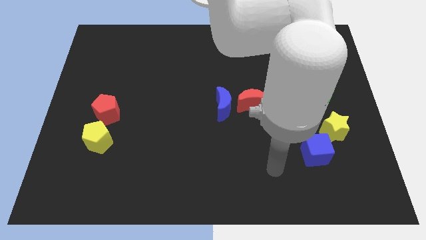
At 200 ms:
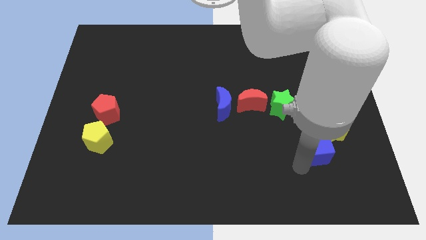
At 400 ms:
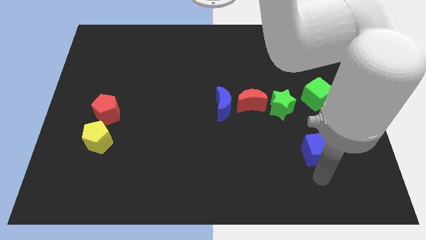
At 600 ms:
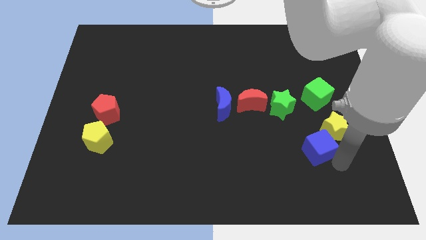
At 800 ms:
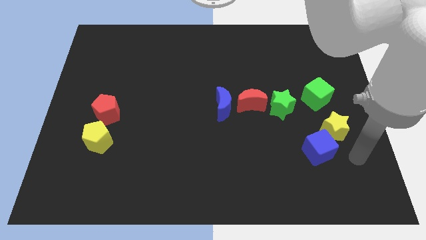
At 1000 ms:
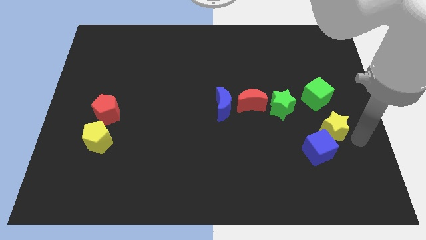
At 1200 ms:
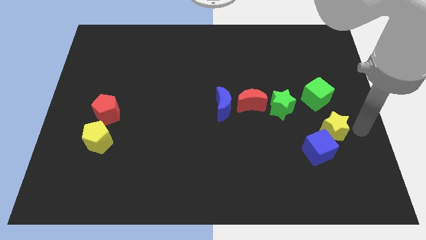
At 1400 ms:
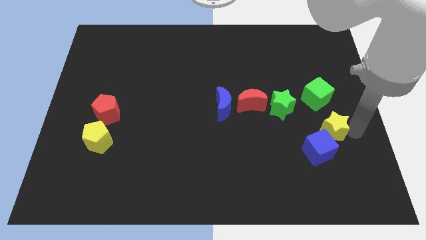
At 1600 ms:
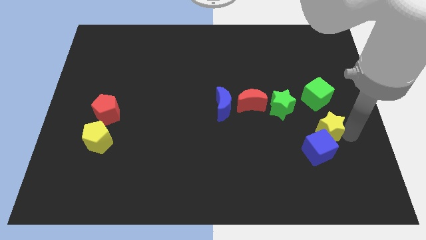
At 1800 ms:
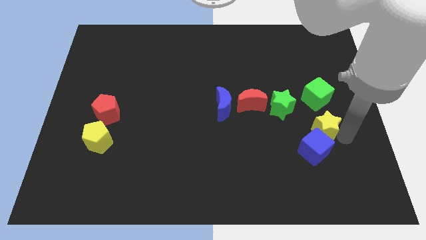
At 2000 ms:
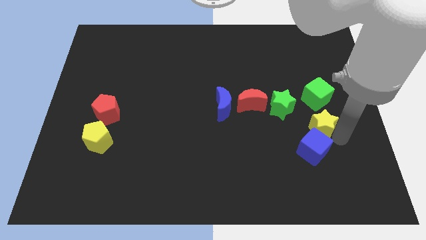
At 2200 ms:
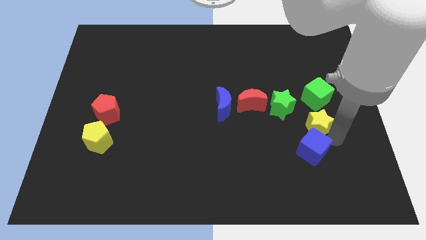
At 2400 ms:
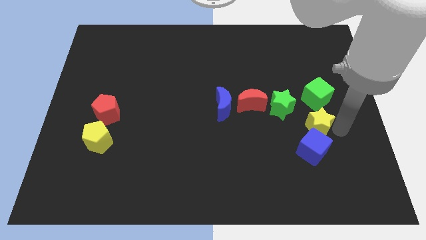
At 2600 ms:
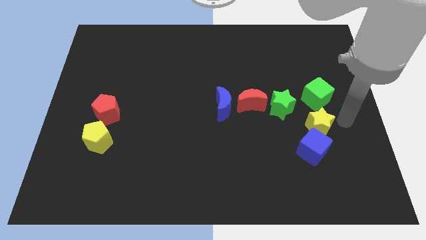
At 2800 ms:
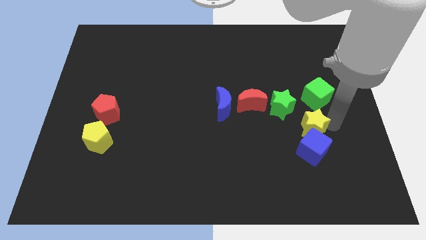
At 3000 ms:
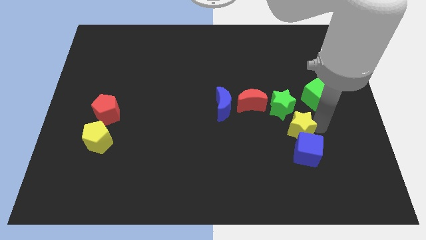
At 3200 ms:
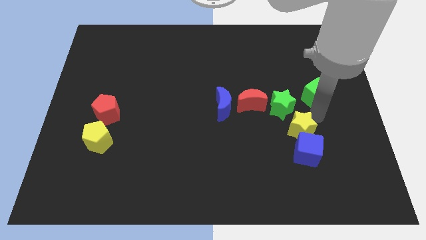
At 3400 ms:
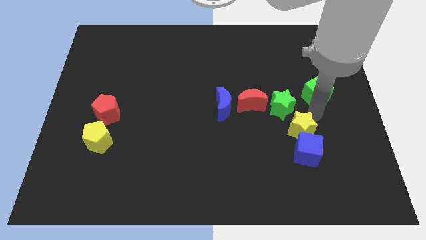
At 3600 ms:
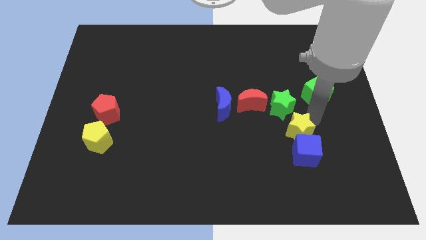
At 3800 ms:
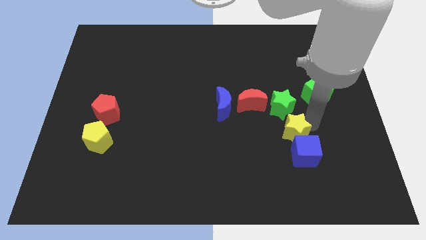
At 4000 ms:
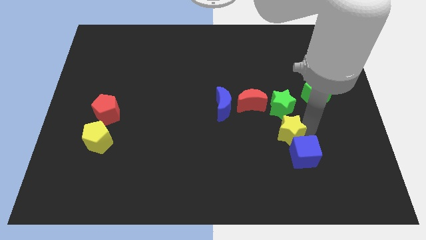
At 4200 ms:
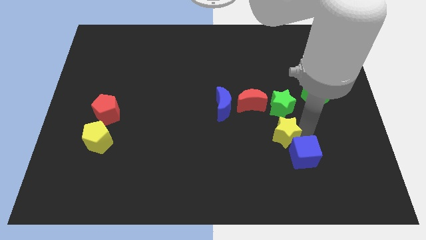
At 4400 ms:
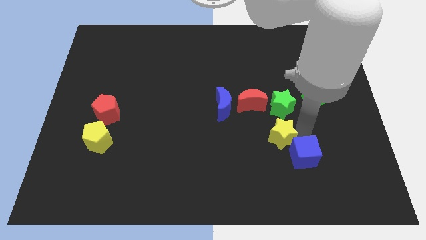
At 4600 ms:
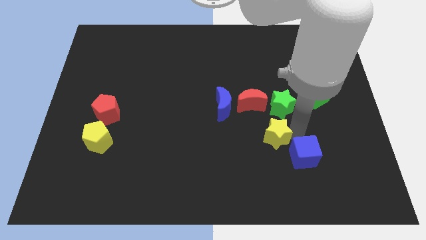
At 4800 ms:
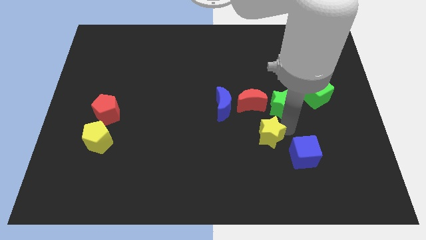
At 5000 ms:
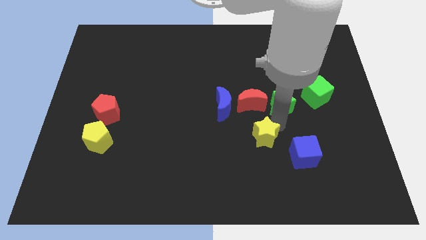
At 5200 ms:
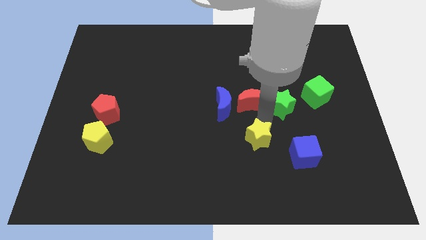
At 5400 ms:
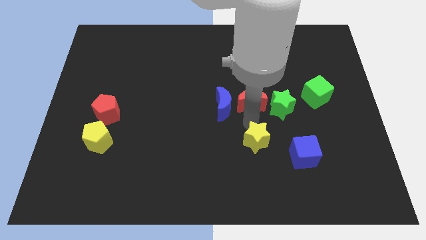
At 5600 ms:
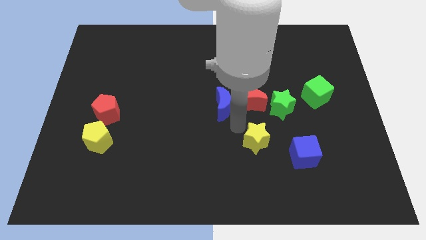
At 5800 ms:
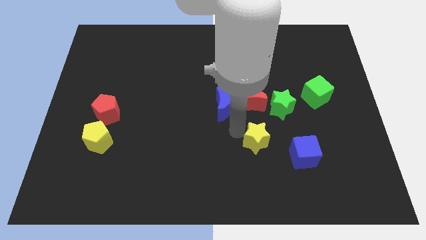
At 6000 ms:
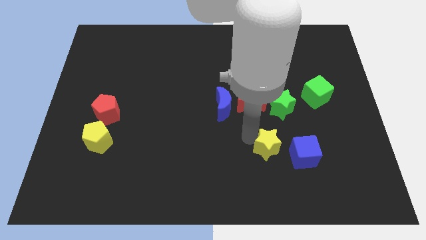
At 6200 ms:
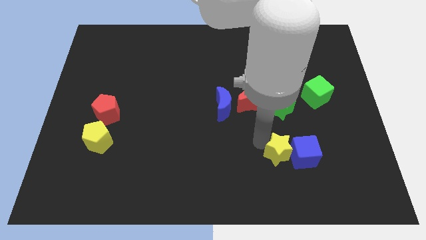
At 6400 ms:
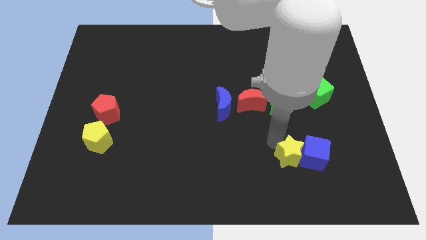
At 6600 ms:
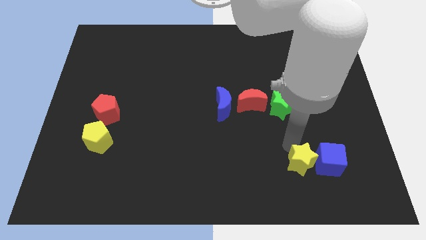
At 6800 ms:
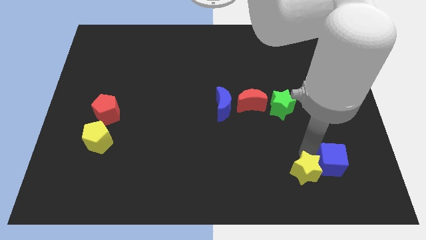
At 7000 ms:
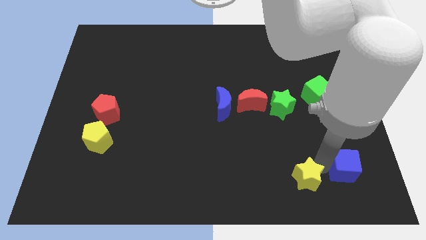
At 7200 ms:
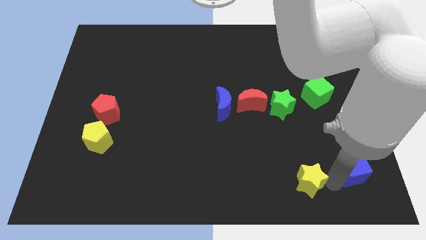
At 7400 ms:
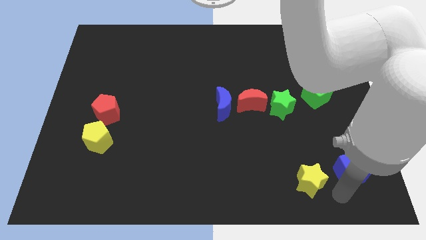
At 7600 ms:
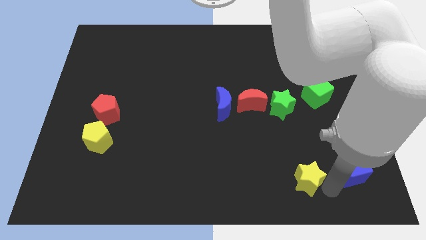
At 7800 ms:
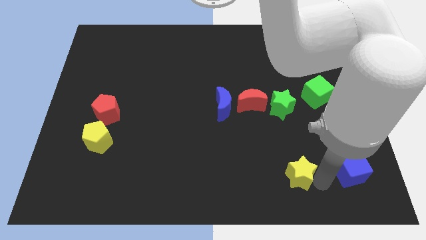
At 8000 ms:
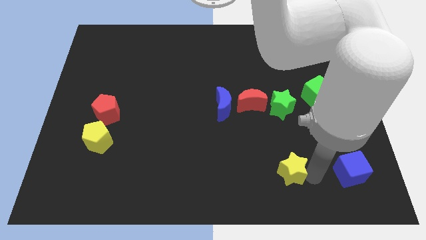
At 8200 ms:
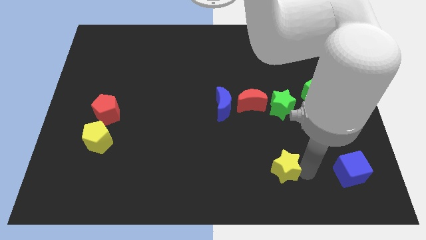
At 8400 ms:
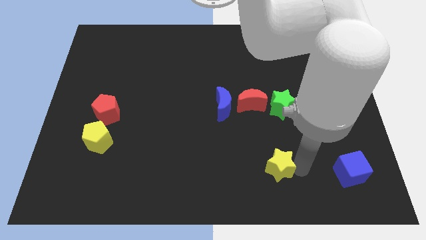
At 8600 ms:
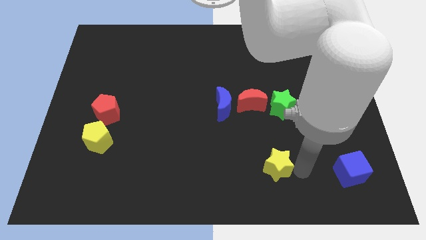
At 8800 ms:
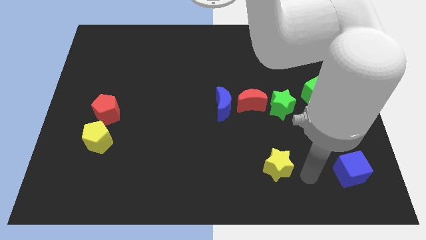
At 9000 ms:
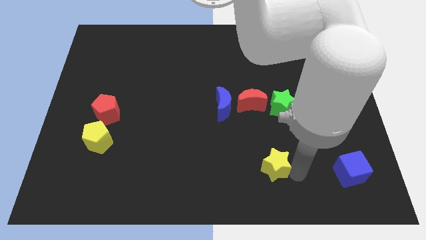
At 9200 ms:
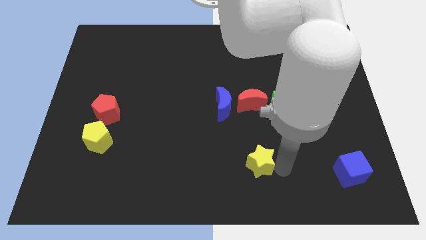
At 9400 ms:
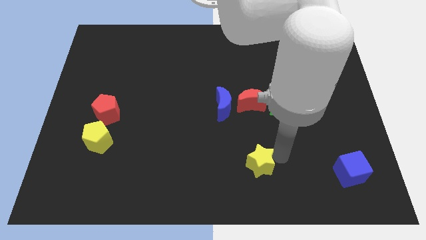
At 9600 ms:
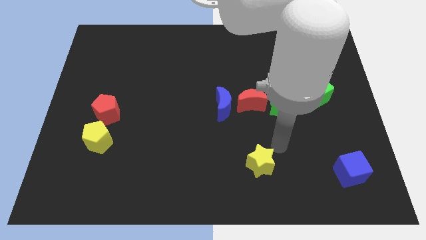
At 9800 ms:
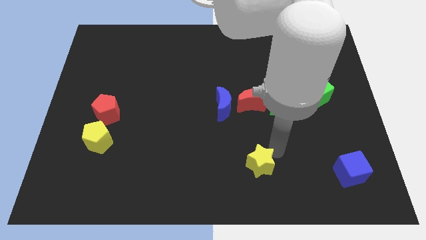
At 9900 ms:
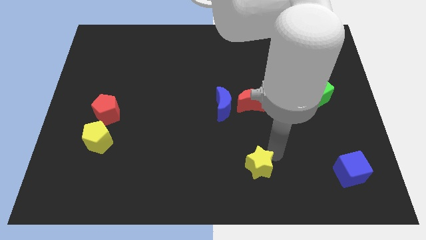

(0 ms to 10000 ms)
slide the yellow star to the bottom

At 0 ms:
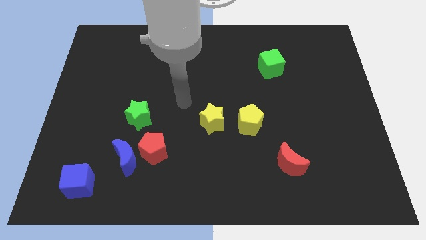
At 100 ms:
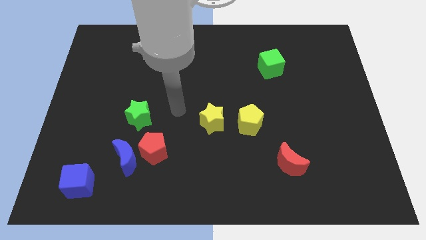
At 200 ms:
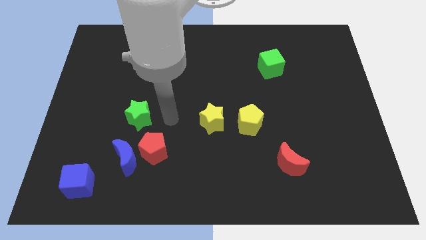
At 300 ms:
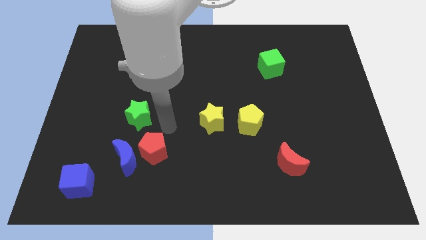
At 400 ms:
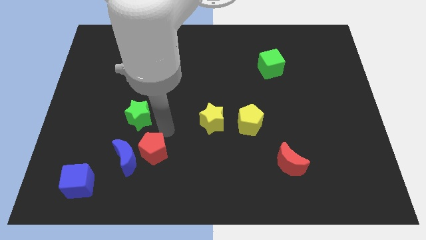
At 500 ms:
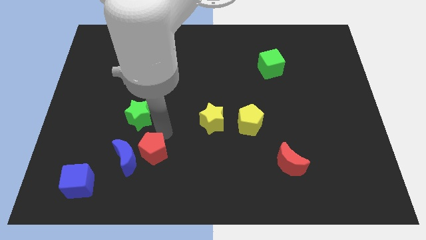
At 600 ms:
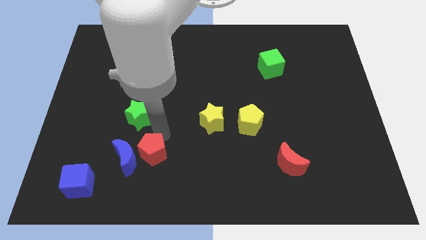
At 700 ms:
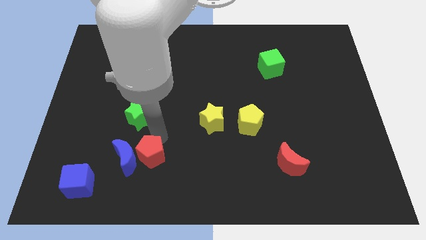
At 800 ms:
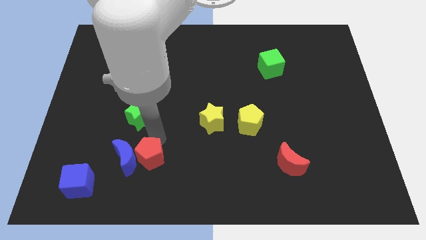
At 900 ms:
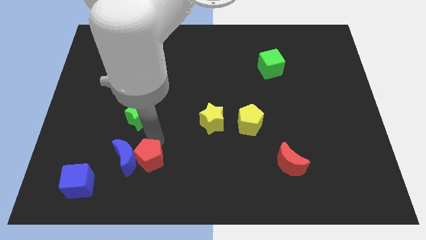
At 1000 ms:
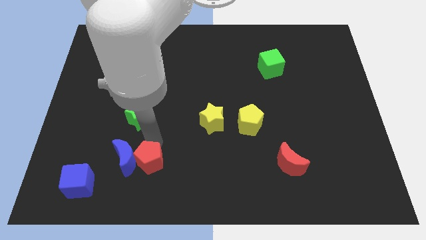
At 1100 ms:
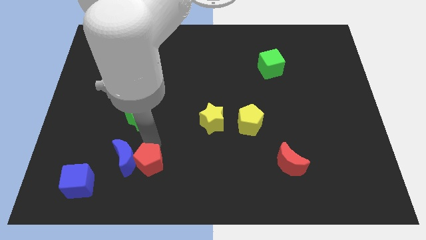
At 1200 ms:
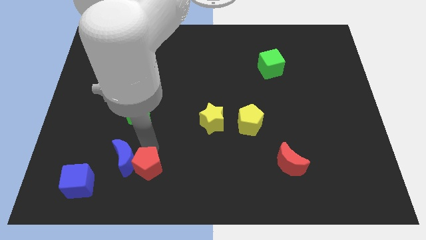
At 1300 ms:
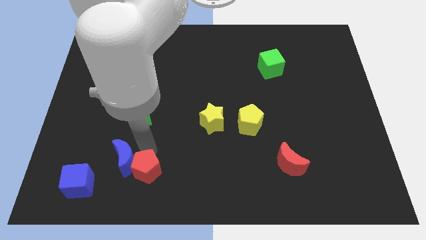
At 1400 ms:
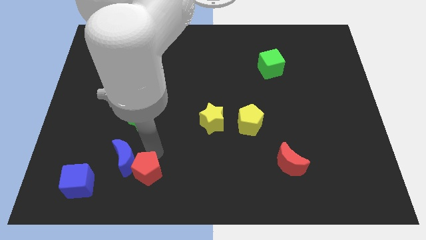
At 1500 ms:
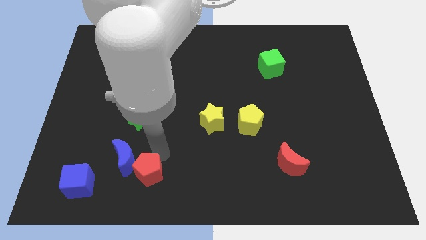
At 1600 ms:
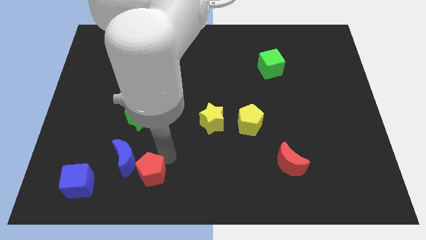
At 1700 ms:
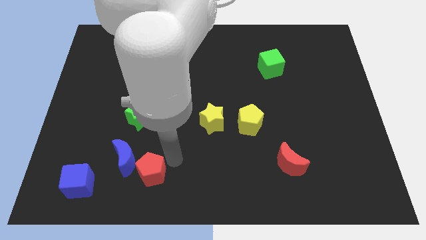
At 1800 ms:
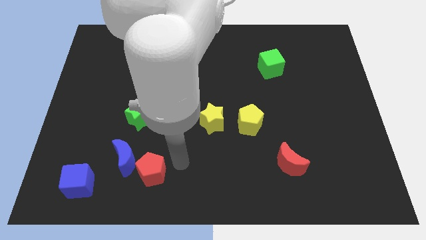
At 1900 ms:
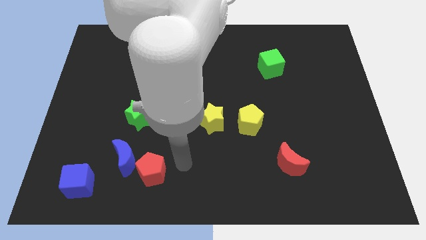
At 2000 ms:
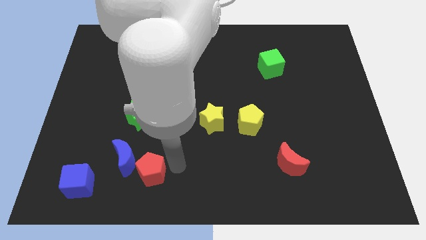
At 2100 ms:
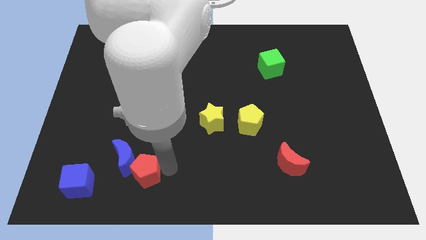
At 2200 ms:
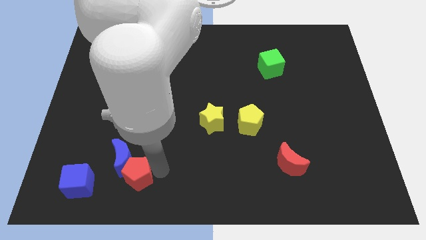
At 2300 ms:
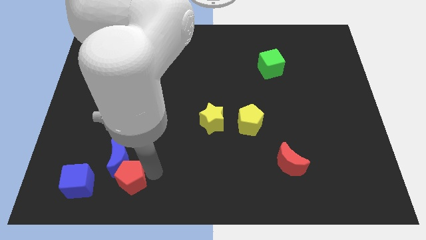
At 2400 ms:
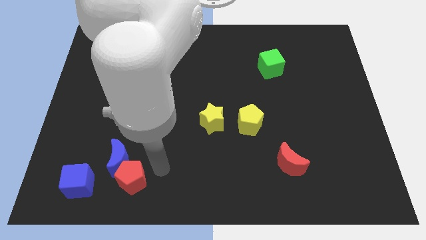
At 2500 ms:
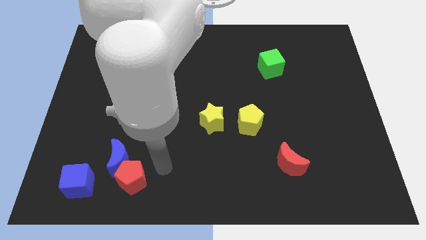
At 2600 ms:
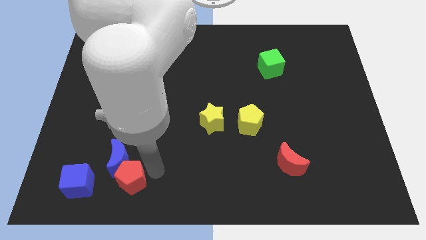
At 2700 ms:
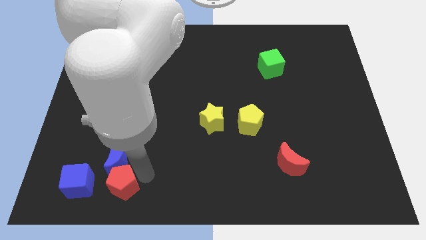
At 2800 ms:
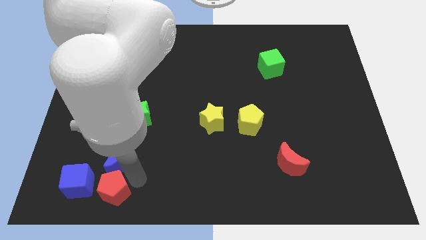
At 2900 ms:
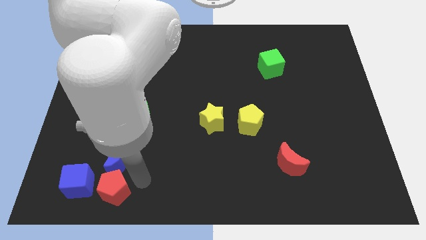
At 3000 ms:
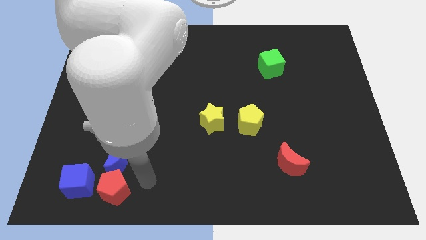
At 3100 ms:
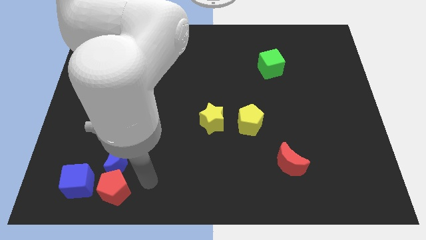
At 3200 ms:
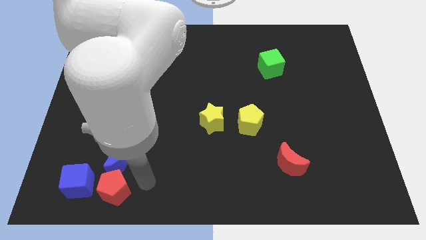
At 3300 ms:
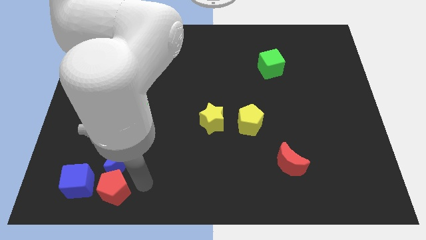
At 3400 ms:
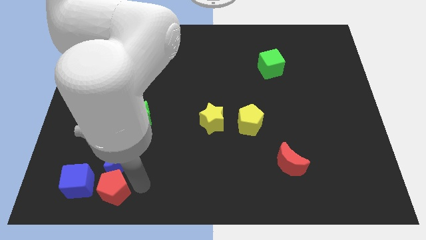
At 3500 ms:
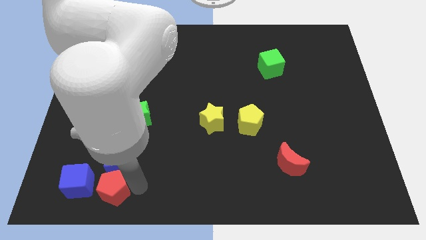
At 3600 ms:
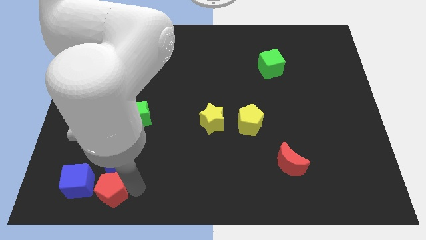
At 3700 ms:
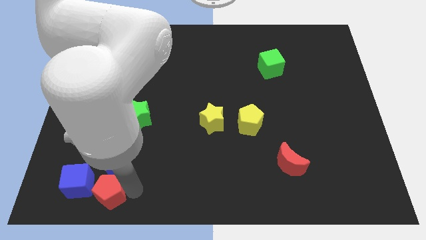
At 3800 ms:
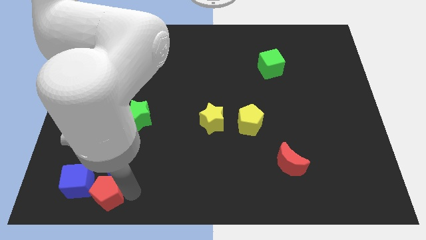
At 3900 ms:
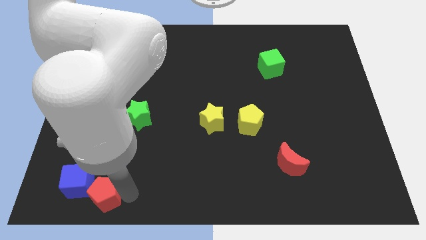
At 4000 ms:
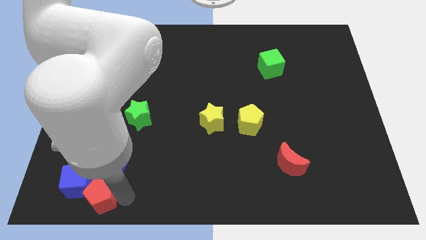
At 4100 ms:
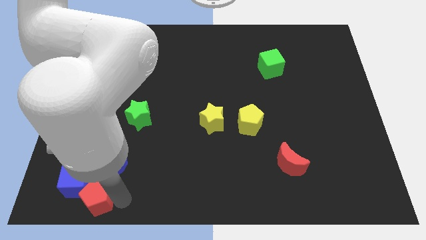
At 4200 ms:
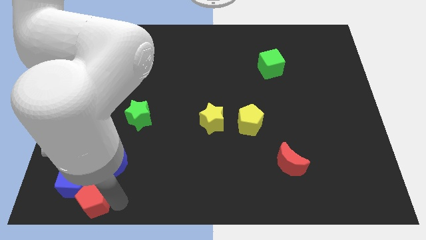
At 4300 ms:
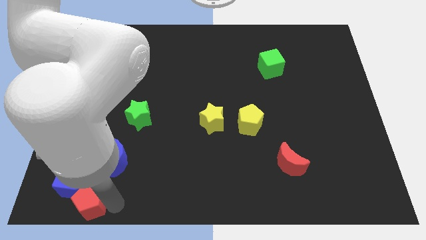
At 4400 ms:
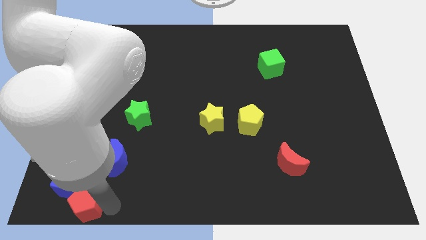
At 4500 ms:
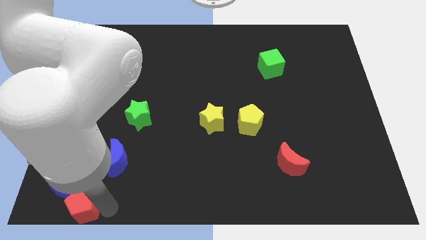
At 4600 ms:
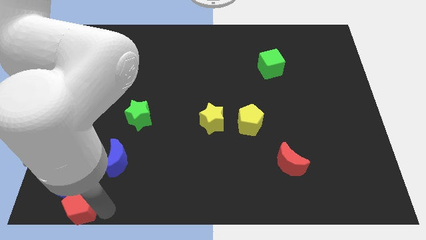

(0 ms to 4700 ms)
put the red pentagon to the lower left corner
